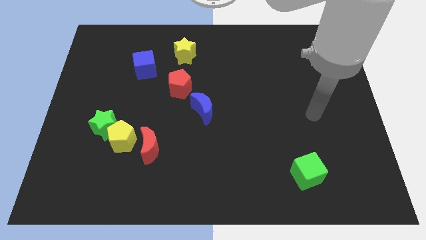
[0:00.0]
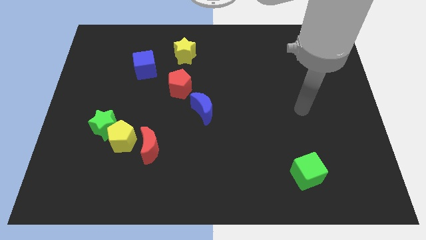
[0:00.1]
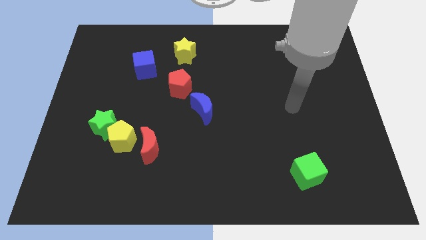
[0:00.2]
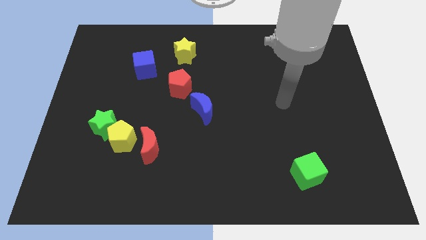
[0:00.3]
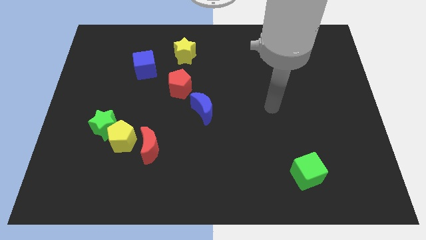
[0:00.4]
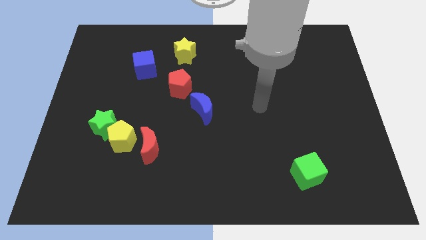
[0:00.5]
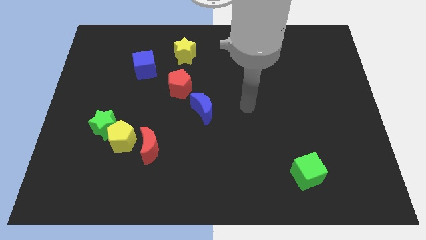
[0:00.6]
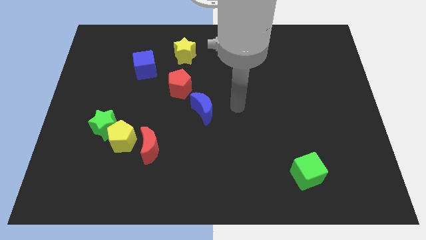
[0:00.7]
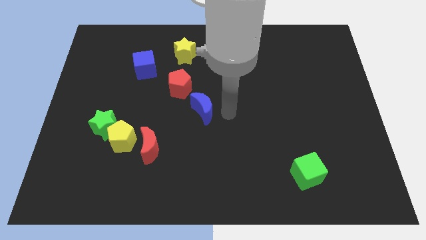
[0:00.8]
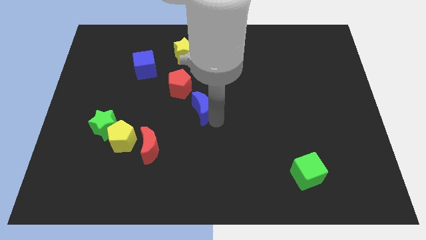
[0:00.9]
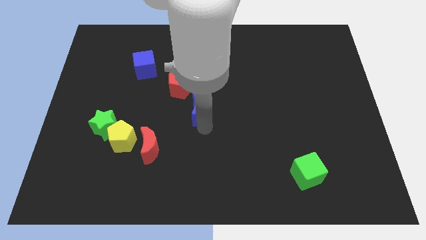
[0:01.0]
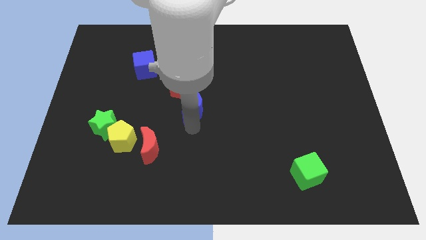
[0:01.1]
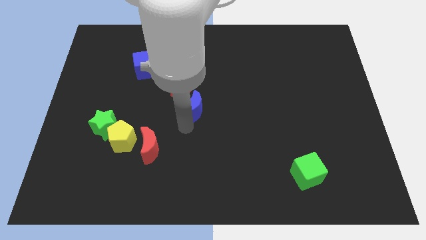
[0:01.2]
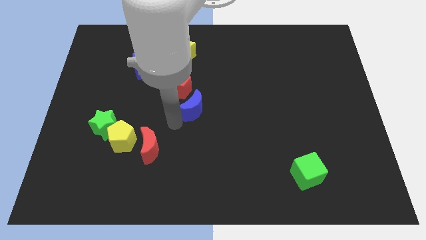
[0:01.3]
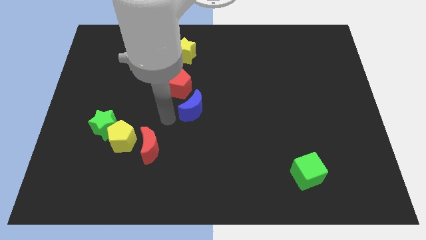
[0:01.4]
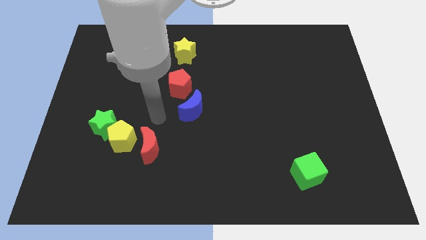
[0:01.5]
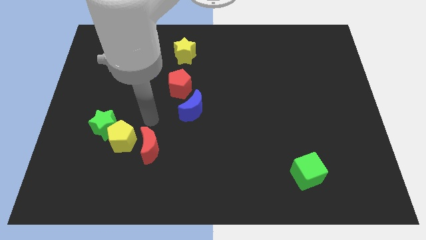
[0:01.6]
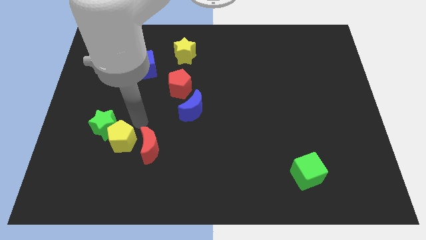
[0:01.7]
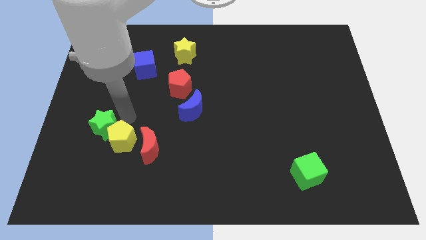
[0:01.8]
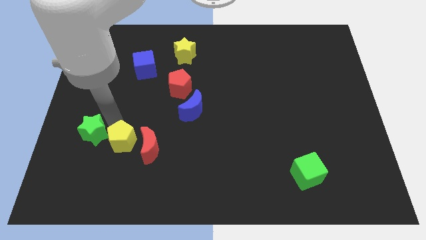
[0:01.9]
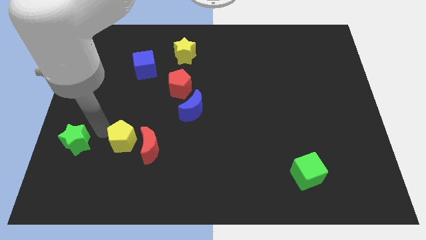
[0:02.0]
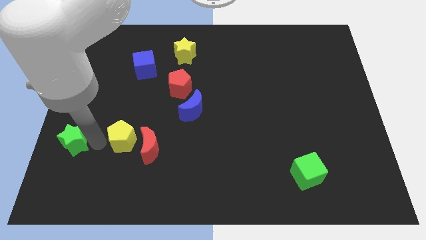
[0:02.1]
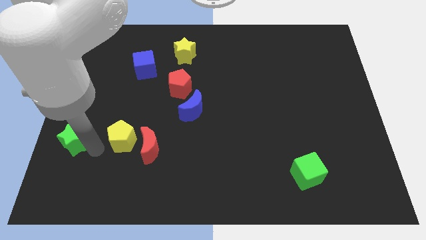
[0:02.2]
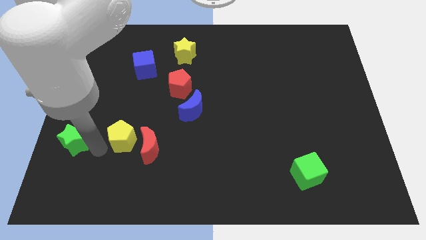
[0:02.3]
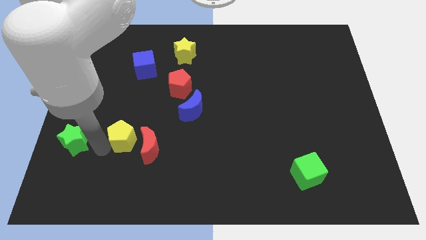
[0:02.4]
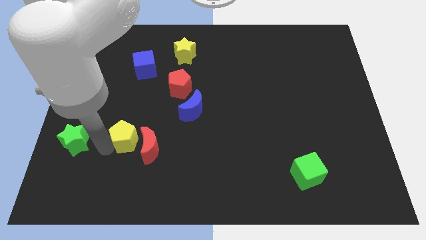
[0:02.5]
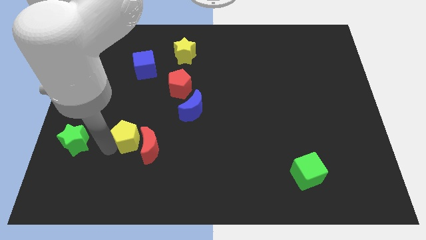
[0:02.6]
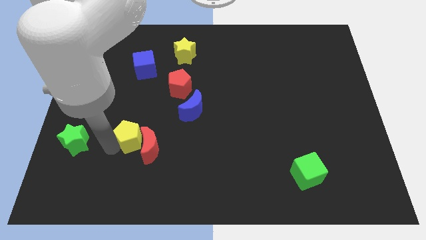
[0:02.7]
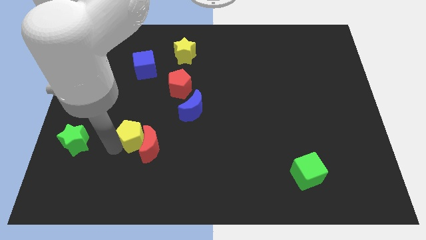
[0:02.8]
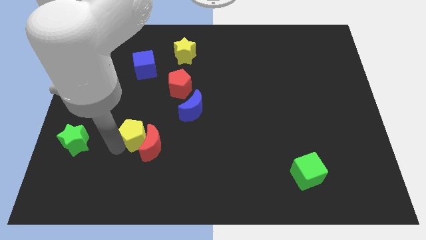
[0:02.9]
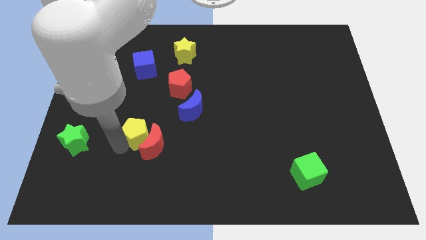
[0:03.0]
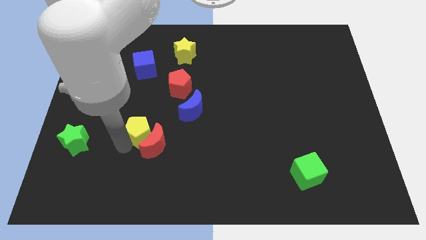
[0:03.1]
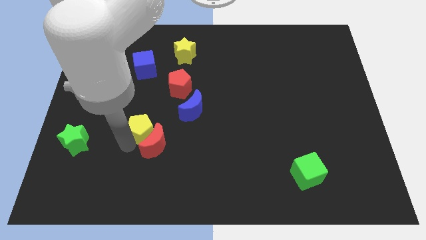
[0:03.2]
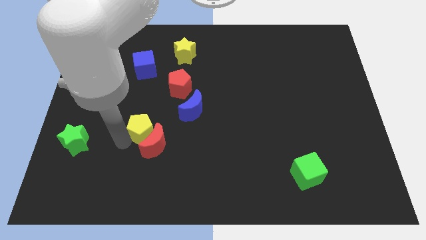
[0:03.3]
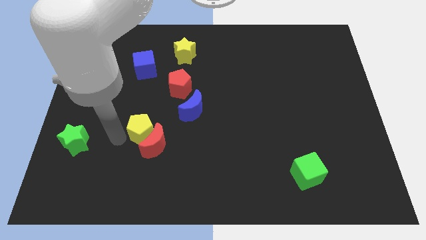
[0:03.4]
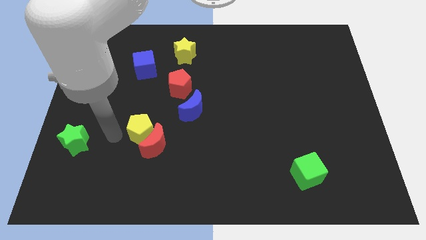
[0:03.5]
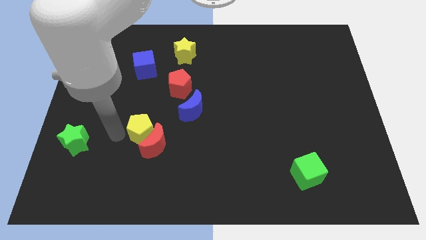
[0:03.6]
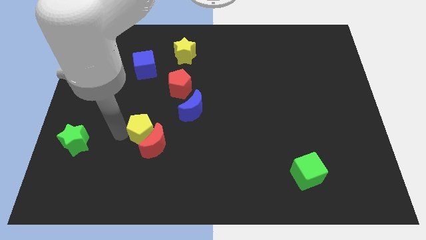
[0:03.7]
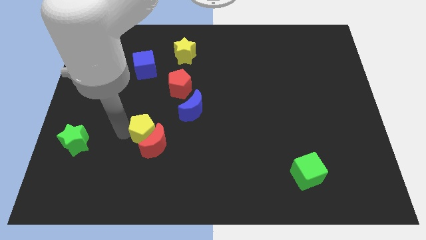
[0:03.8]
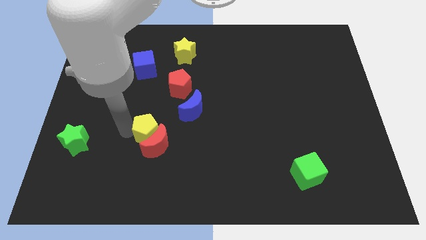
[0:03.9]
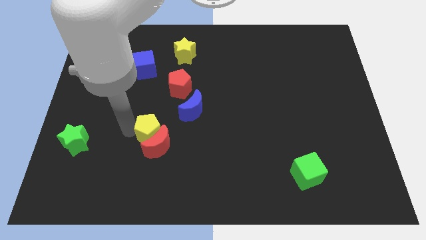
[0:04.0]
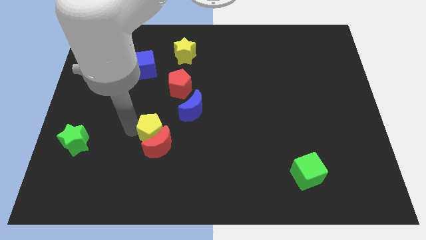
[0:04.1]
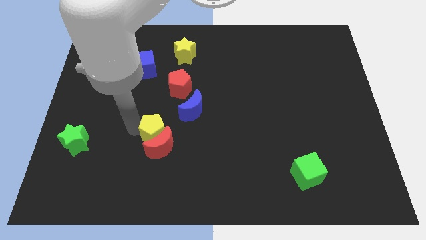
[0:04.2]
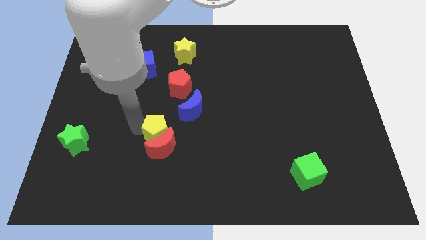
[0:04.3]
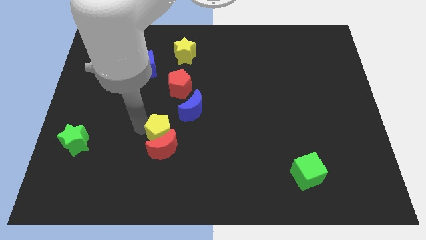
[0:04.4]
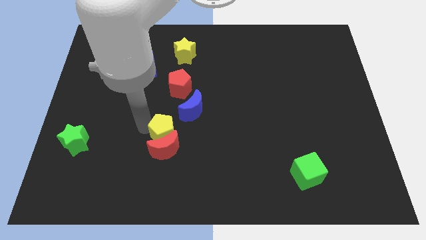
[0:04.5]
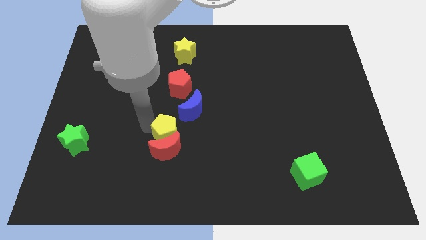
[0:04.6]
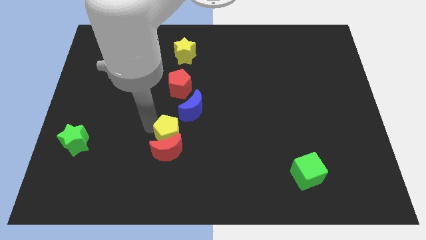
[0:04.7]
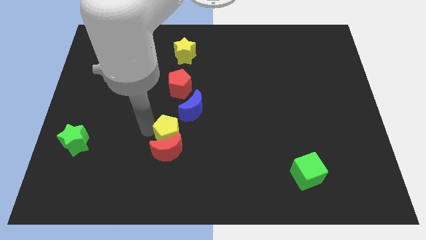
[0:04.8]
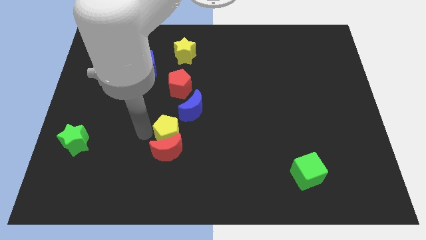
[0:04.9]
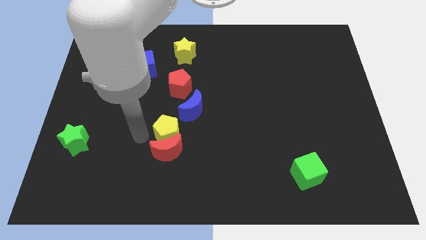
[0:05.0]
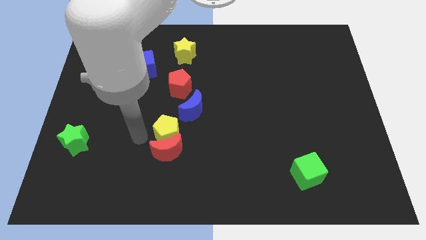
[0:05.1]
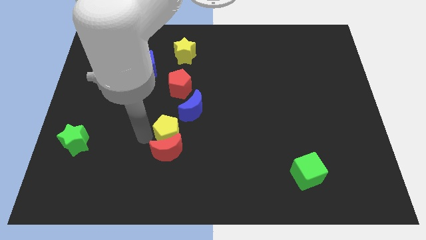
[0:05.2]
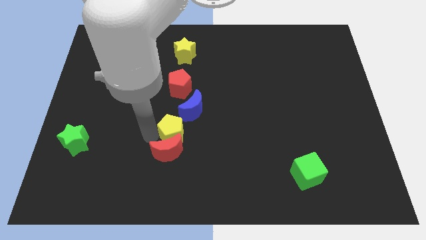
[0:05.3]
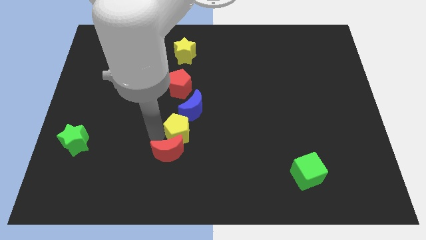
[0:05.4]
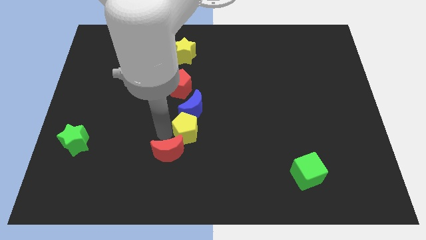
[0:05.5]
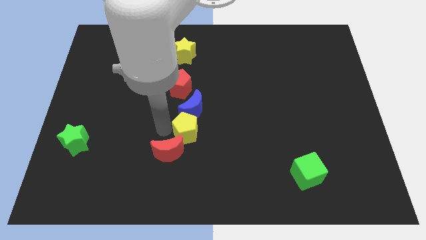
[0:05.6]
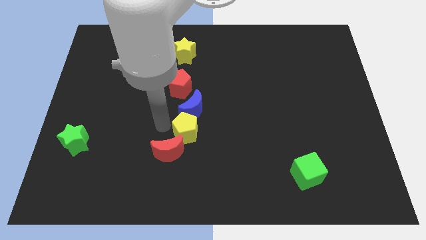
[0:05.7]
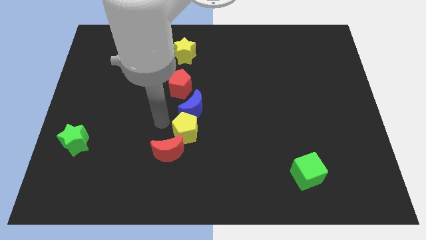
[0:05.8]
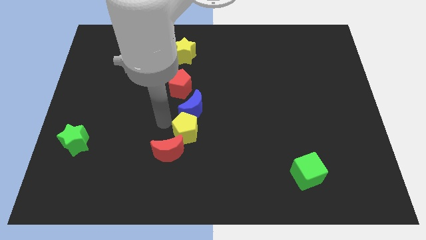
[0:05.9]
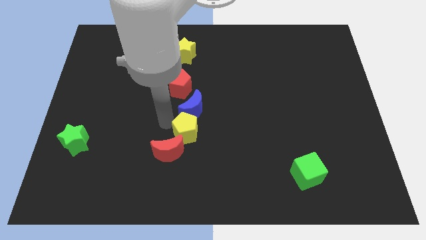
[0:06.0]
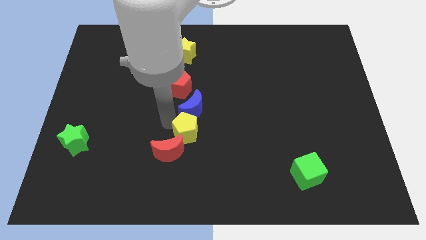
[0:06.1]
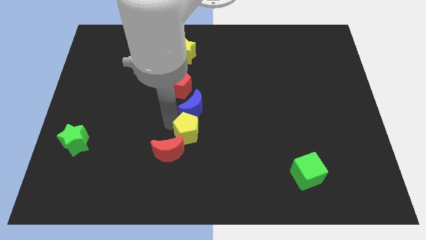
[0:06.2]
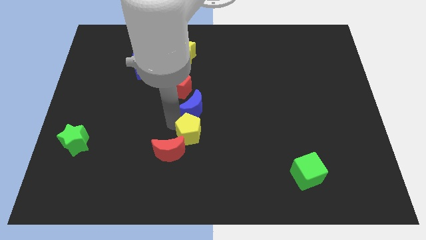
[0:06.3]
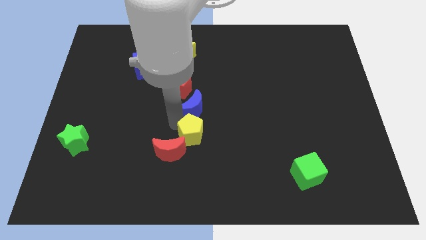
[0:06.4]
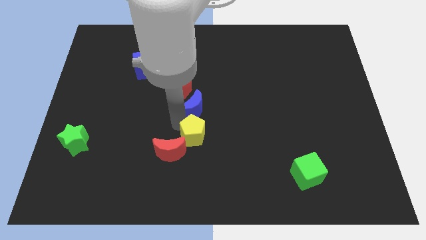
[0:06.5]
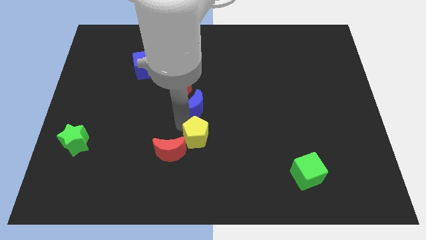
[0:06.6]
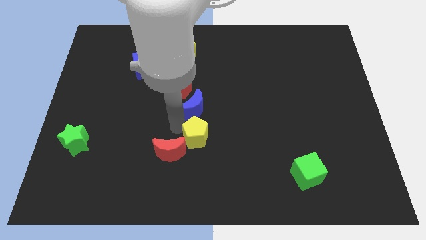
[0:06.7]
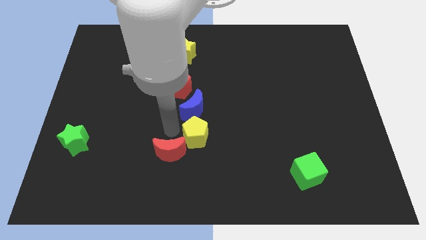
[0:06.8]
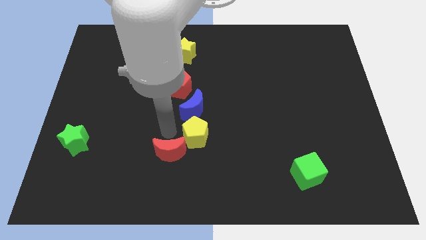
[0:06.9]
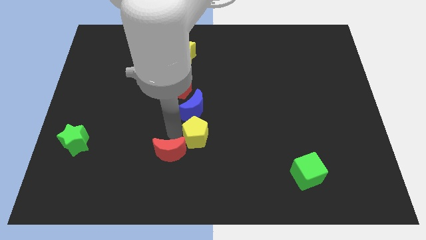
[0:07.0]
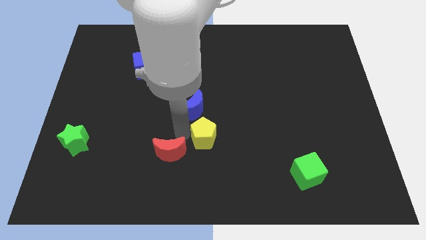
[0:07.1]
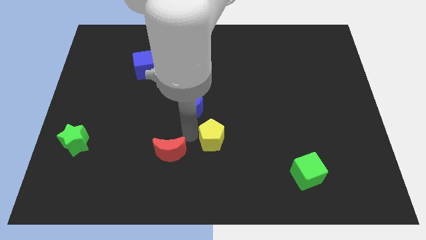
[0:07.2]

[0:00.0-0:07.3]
move the yellow pentagon to the right

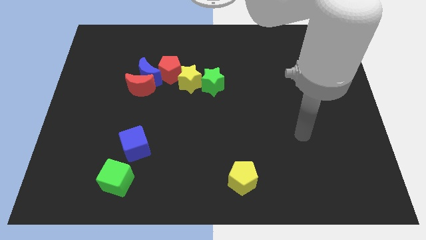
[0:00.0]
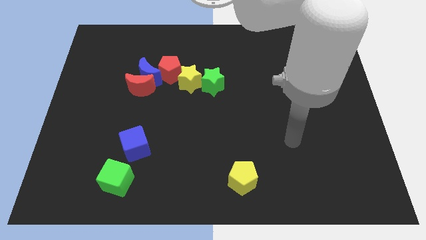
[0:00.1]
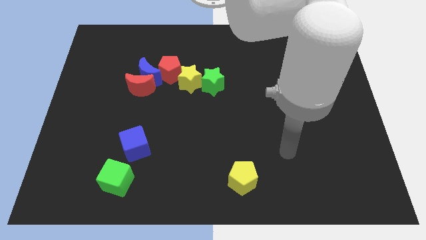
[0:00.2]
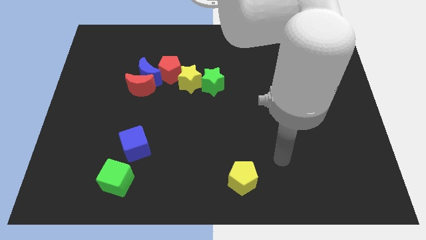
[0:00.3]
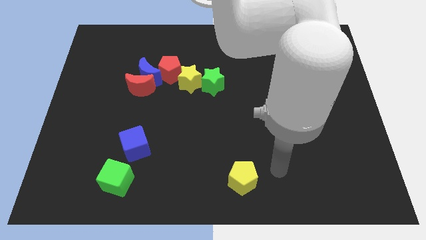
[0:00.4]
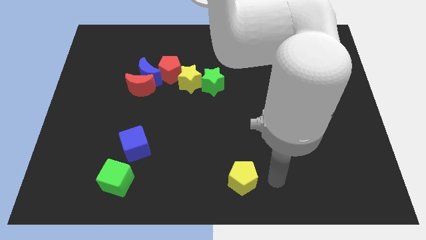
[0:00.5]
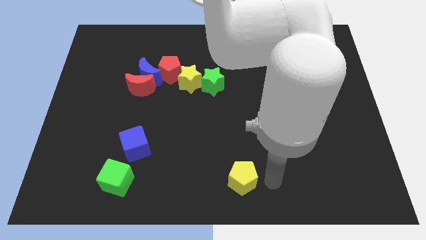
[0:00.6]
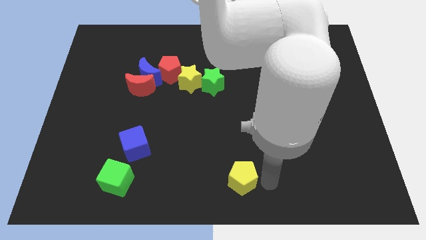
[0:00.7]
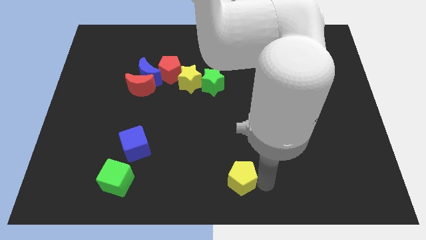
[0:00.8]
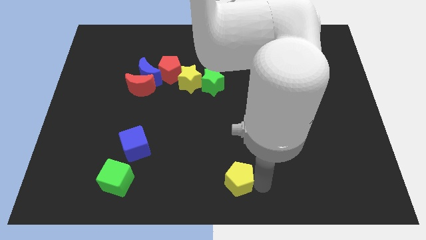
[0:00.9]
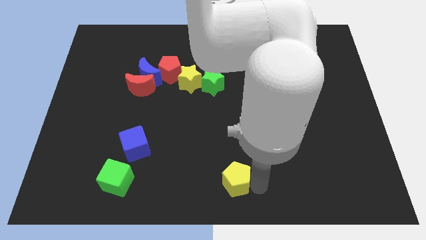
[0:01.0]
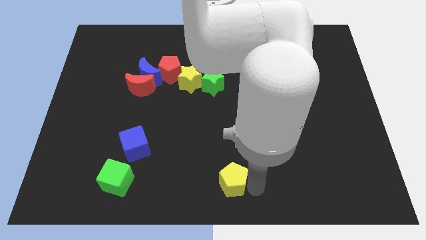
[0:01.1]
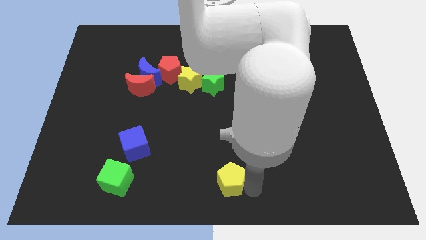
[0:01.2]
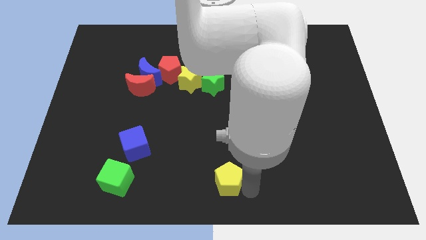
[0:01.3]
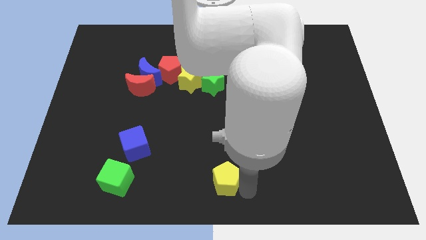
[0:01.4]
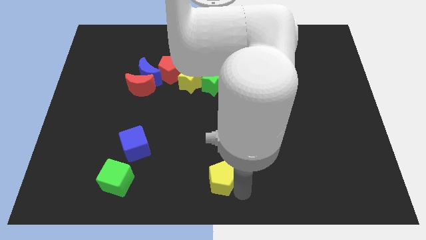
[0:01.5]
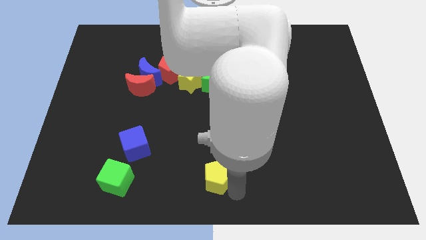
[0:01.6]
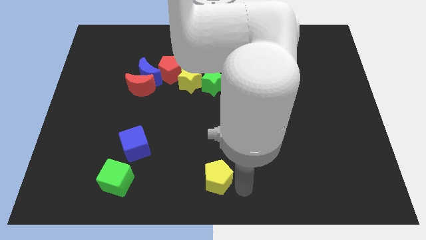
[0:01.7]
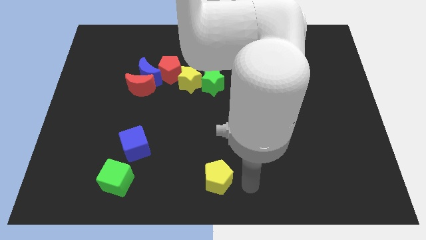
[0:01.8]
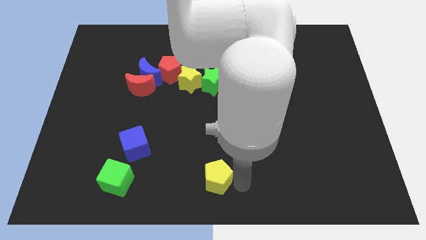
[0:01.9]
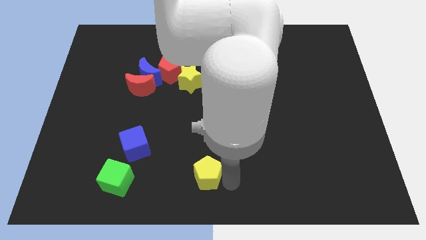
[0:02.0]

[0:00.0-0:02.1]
slightly move the yellow pentagon to the left
